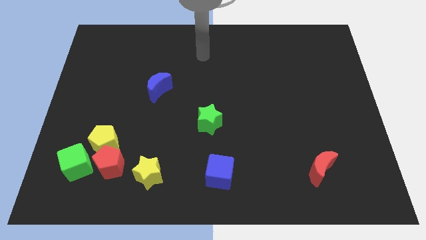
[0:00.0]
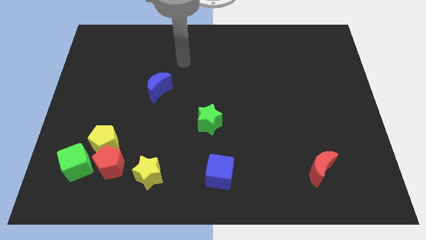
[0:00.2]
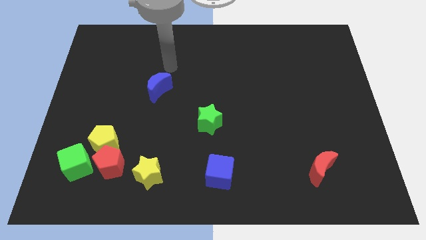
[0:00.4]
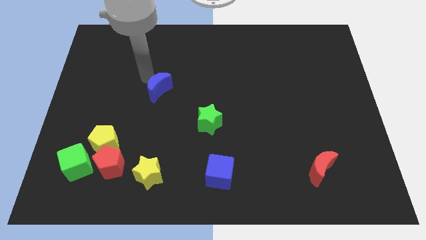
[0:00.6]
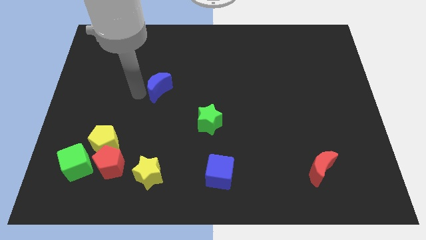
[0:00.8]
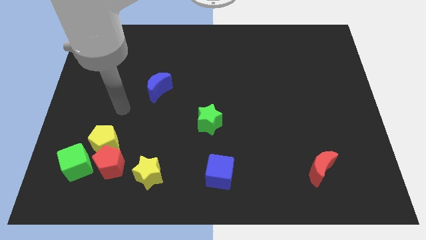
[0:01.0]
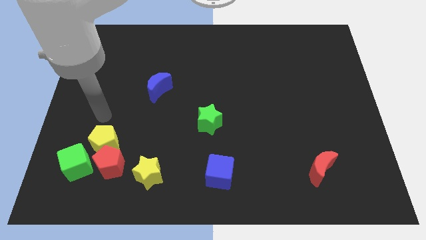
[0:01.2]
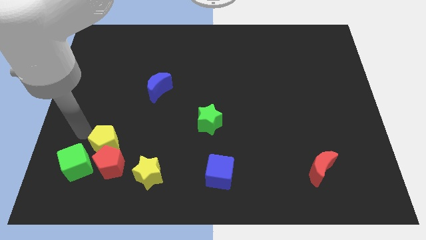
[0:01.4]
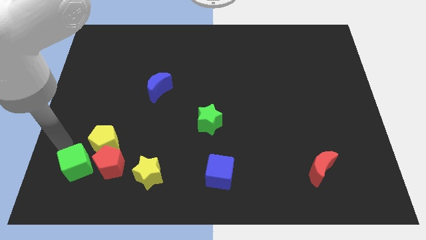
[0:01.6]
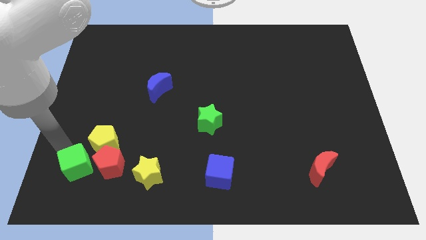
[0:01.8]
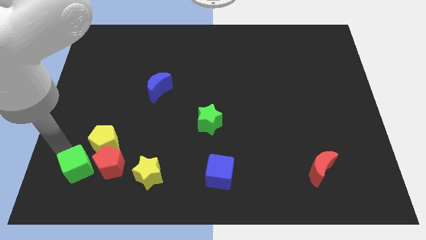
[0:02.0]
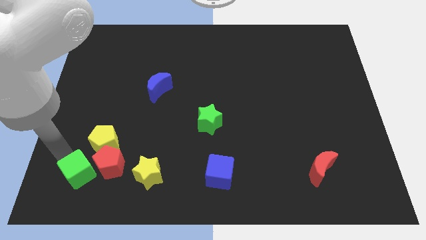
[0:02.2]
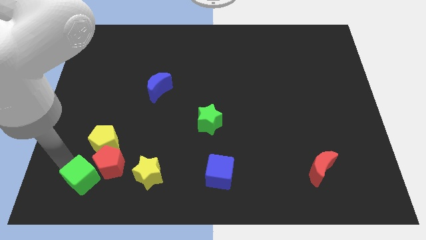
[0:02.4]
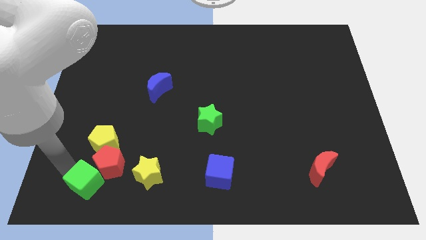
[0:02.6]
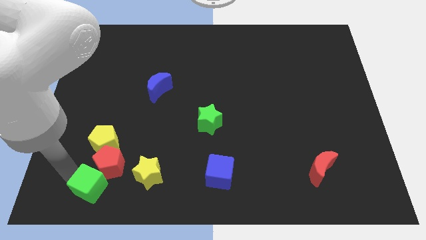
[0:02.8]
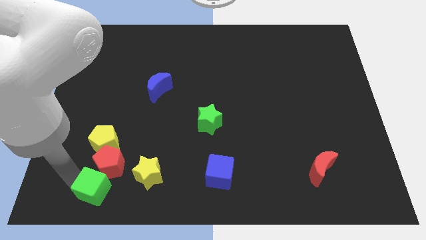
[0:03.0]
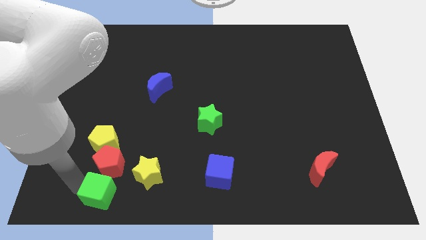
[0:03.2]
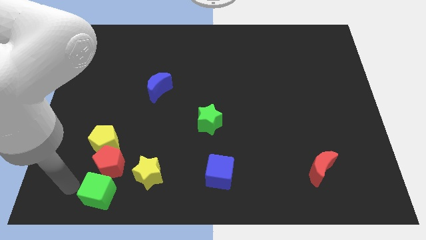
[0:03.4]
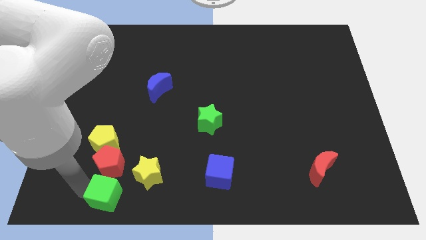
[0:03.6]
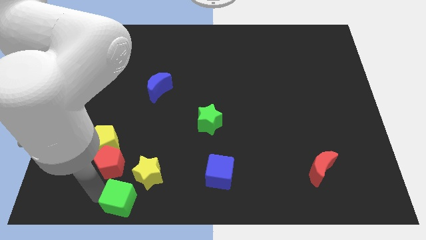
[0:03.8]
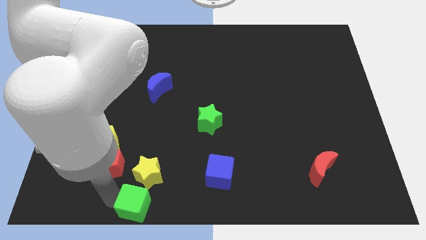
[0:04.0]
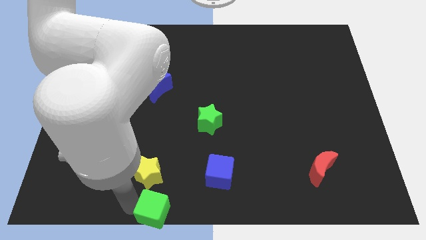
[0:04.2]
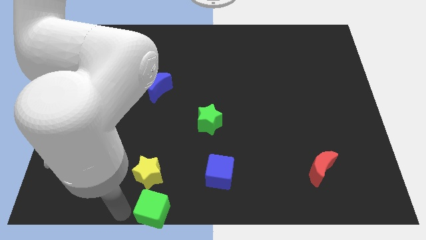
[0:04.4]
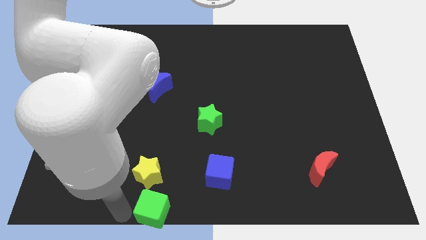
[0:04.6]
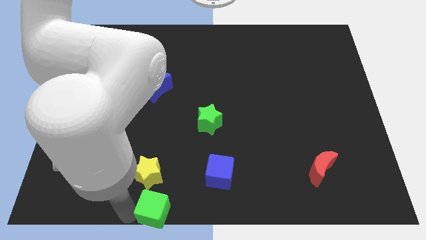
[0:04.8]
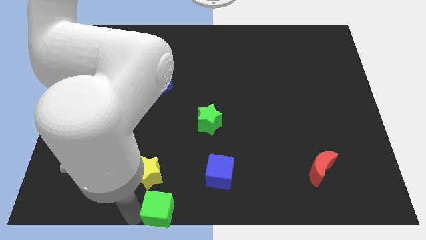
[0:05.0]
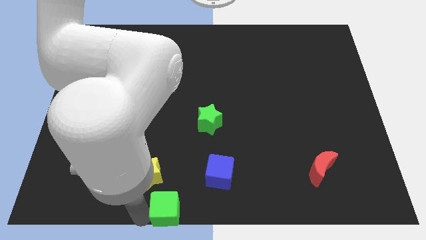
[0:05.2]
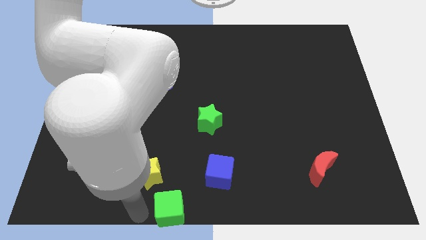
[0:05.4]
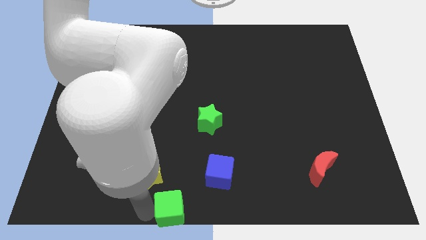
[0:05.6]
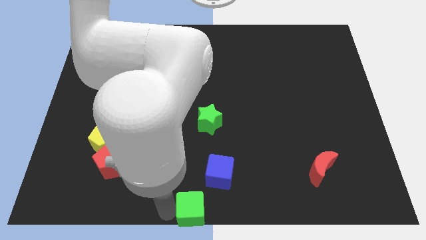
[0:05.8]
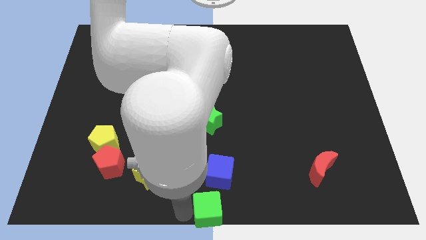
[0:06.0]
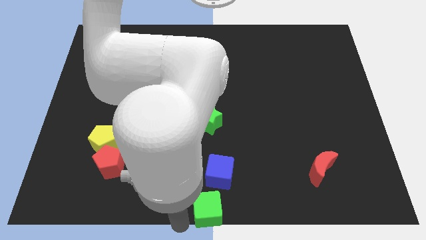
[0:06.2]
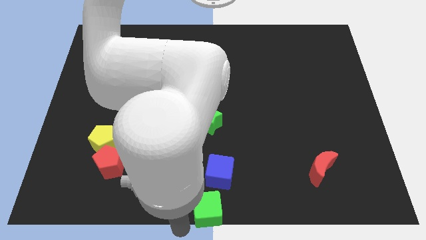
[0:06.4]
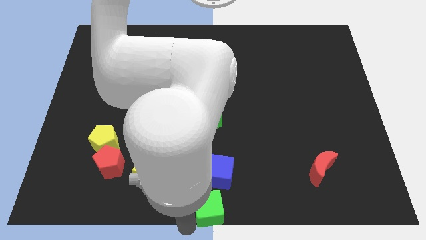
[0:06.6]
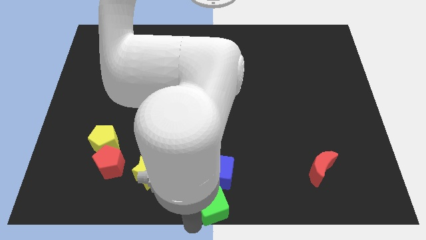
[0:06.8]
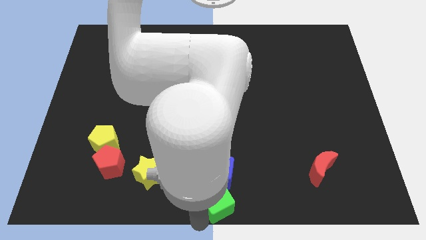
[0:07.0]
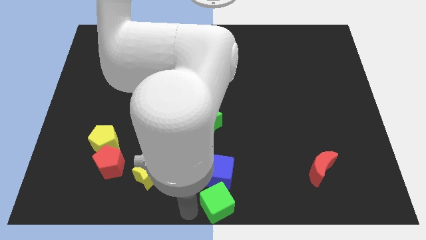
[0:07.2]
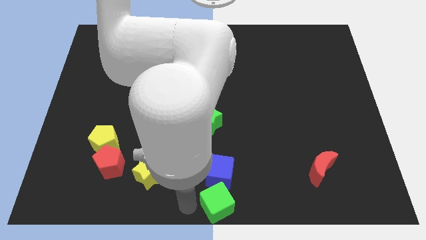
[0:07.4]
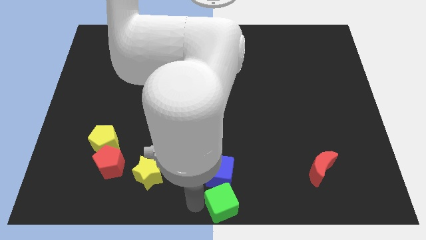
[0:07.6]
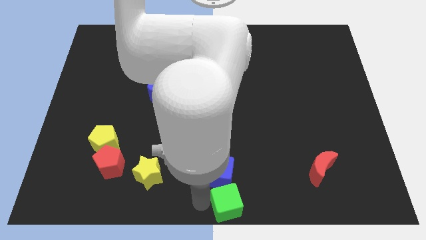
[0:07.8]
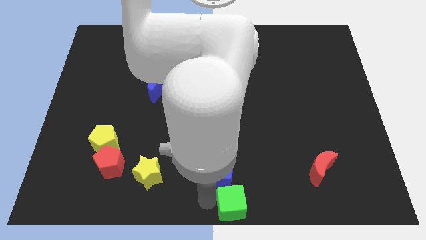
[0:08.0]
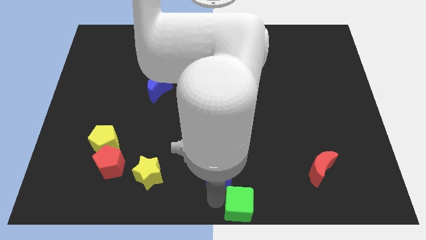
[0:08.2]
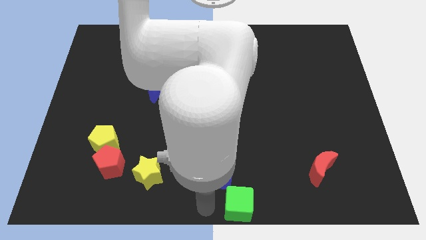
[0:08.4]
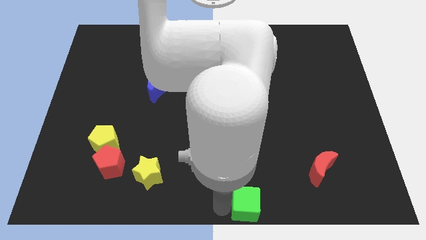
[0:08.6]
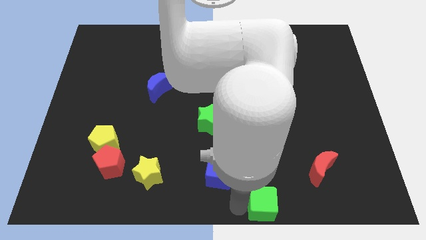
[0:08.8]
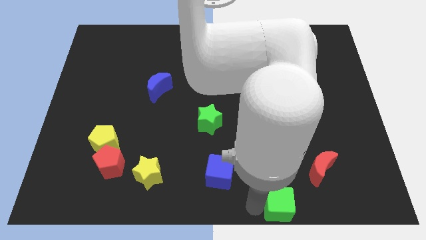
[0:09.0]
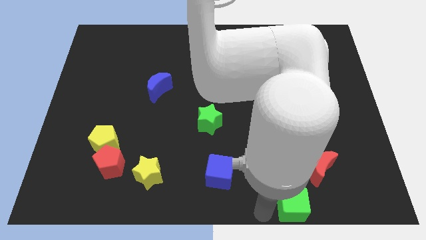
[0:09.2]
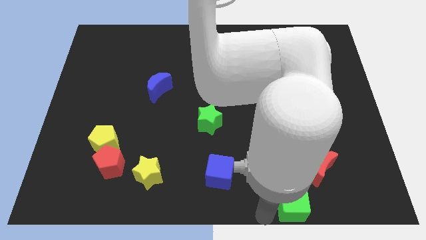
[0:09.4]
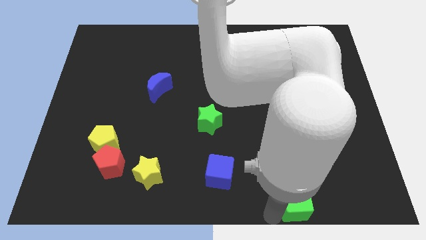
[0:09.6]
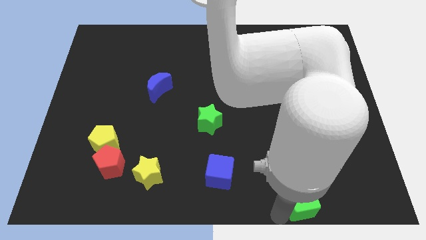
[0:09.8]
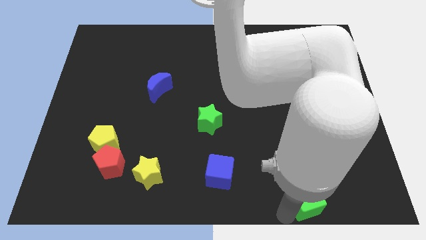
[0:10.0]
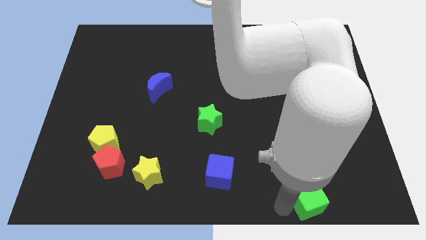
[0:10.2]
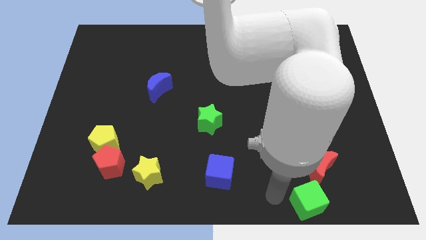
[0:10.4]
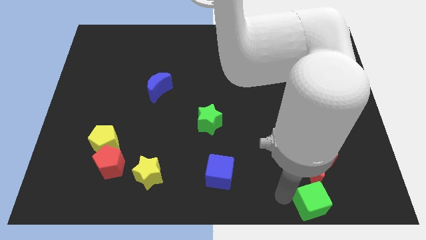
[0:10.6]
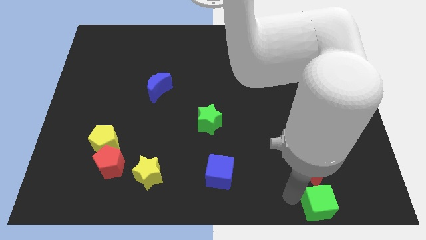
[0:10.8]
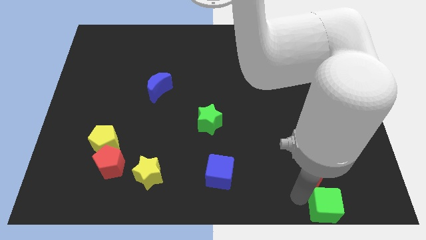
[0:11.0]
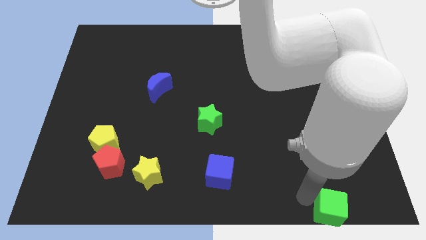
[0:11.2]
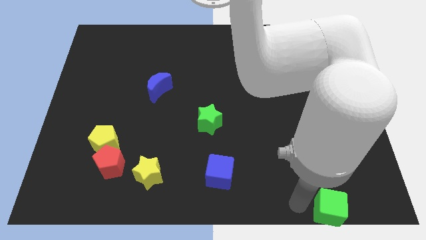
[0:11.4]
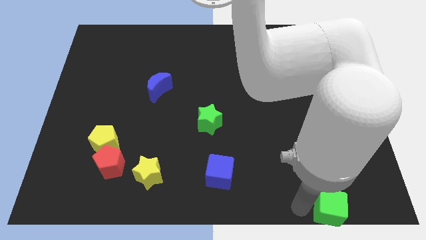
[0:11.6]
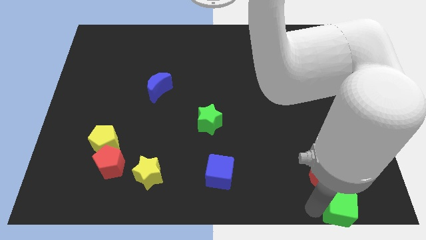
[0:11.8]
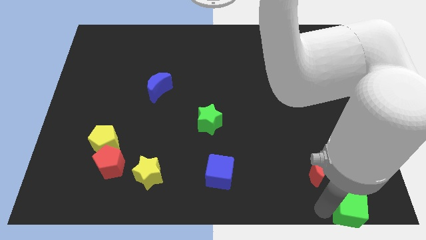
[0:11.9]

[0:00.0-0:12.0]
put the green cube to the bottom right of the board

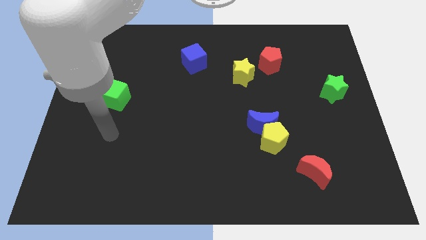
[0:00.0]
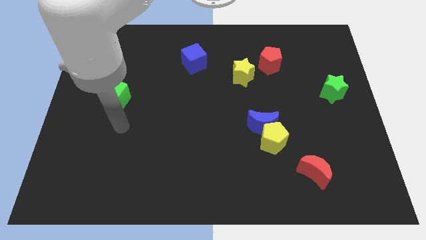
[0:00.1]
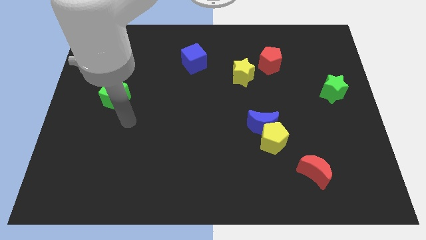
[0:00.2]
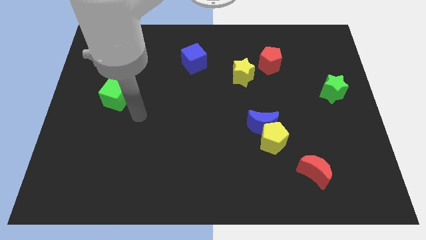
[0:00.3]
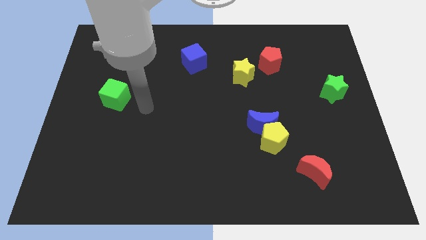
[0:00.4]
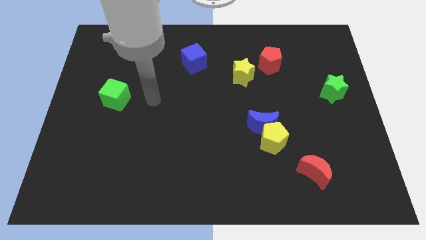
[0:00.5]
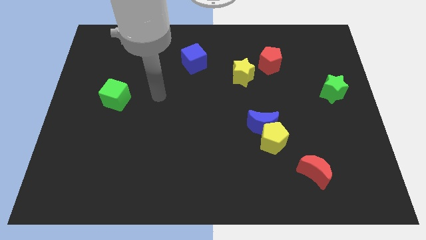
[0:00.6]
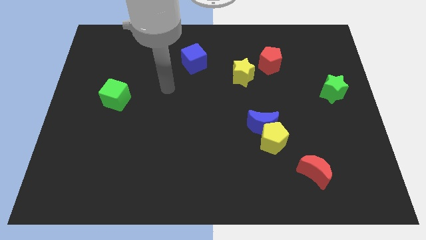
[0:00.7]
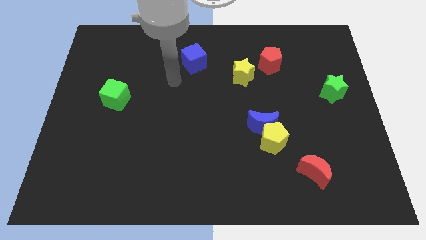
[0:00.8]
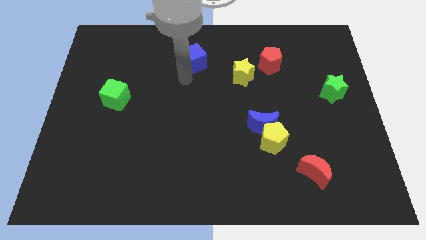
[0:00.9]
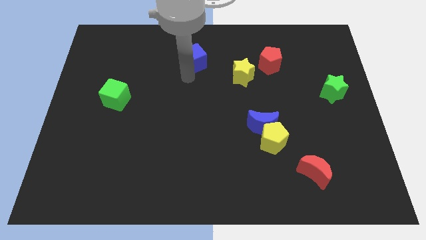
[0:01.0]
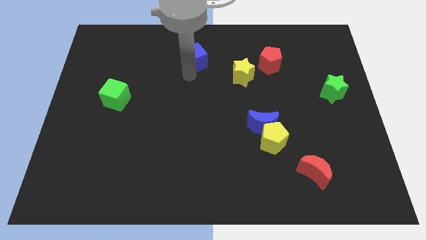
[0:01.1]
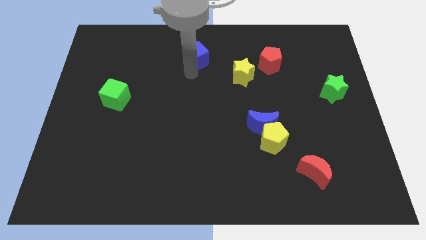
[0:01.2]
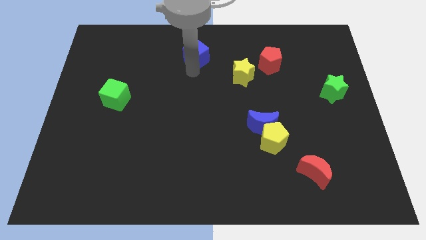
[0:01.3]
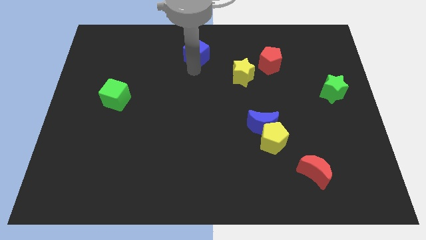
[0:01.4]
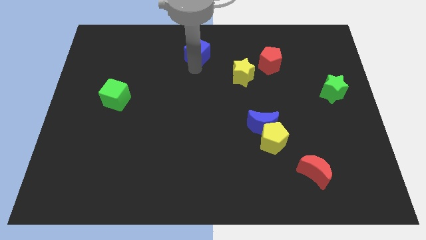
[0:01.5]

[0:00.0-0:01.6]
push the blue cube to the towards your base
